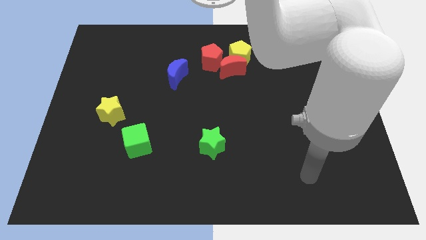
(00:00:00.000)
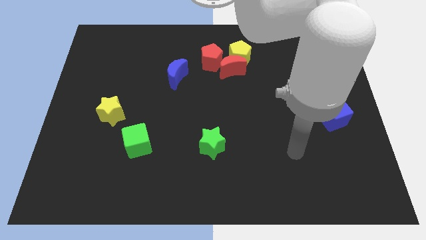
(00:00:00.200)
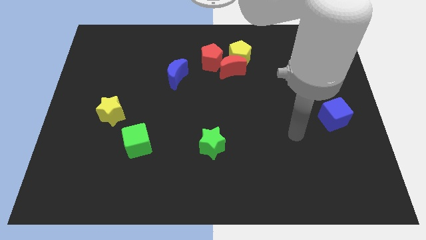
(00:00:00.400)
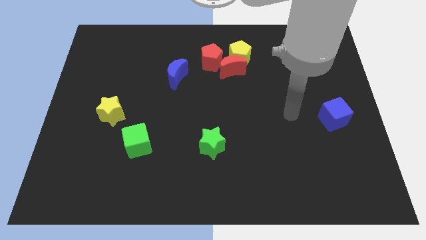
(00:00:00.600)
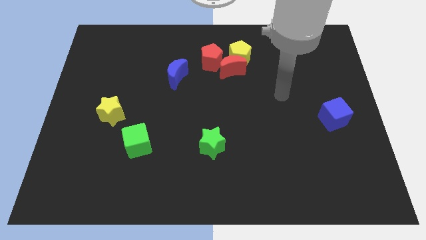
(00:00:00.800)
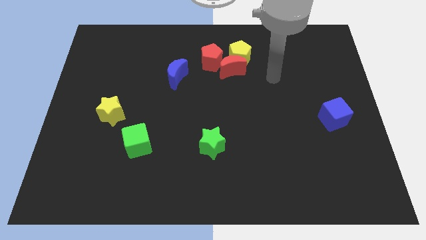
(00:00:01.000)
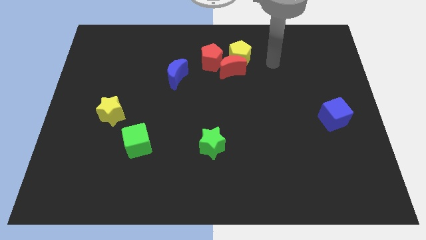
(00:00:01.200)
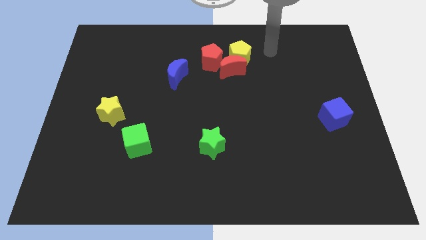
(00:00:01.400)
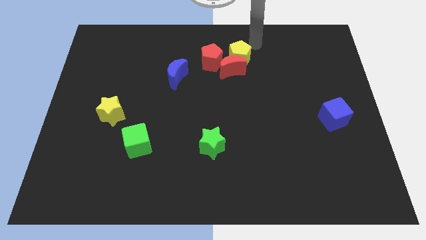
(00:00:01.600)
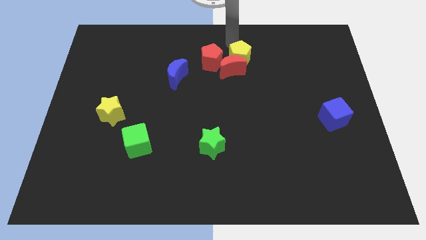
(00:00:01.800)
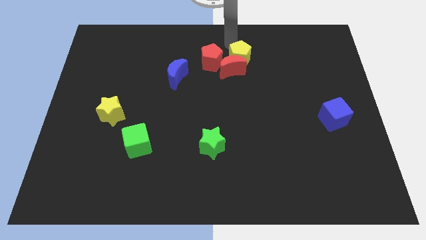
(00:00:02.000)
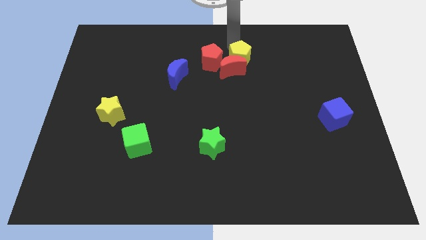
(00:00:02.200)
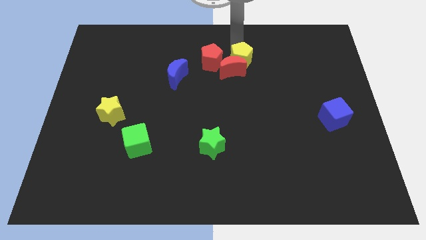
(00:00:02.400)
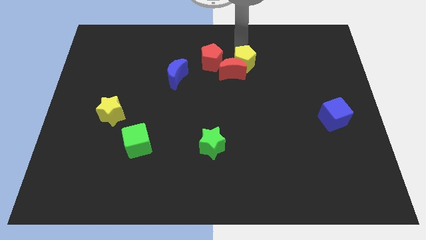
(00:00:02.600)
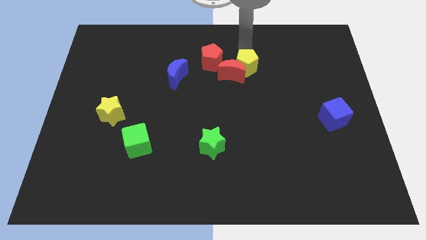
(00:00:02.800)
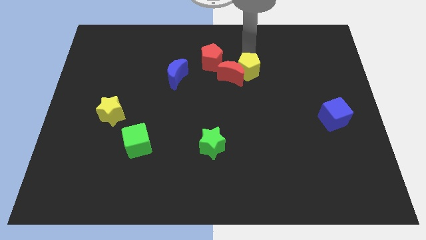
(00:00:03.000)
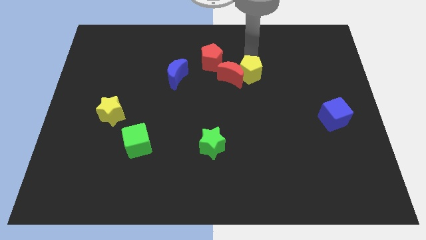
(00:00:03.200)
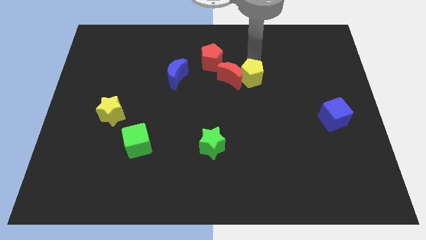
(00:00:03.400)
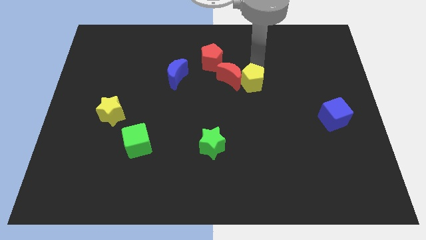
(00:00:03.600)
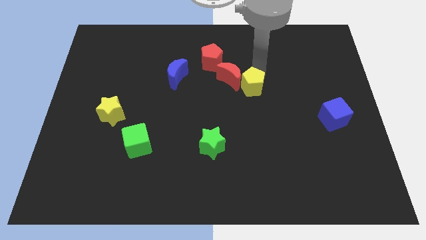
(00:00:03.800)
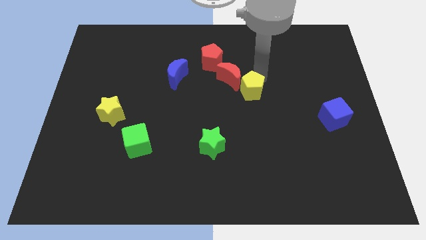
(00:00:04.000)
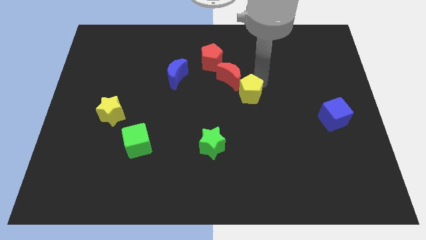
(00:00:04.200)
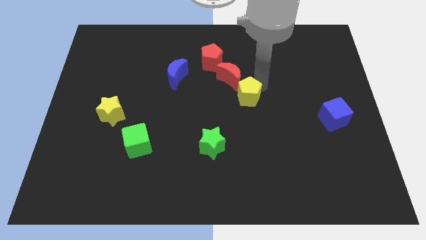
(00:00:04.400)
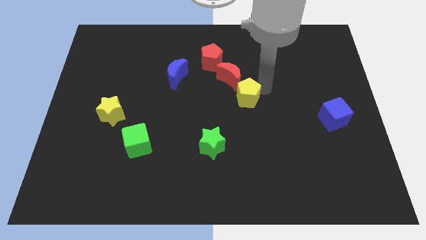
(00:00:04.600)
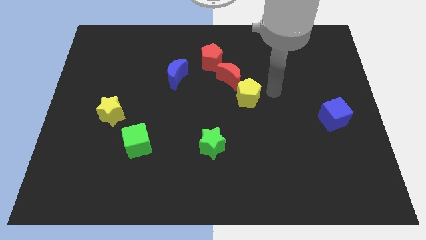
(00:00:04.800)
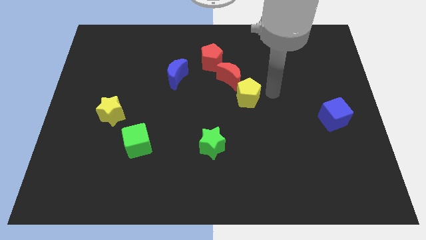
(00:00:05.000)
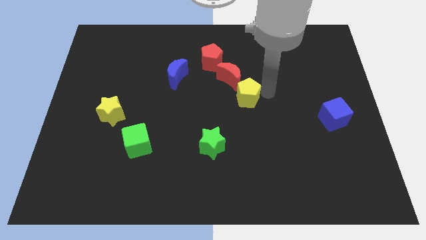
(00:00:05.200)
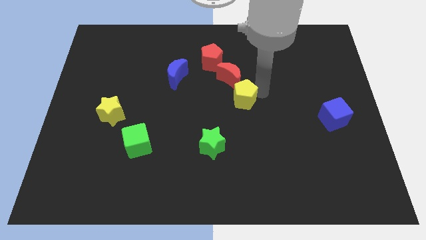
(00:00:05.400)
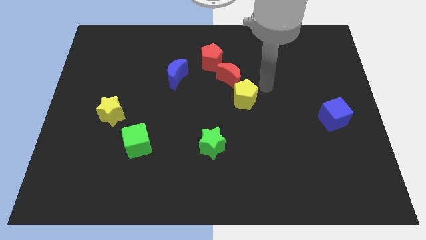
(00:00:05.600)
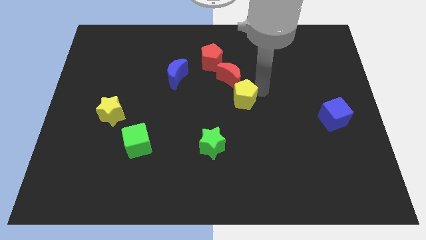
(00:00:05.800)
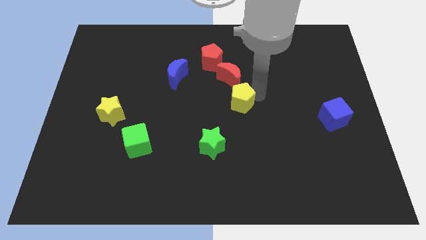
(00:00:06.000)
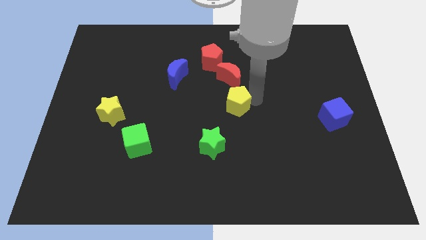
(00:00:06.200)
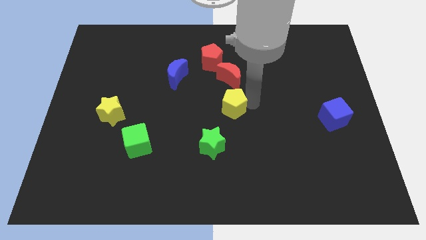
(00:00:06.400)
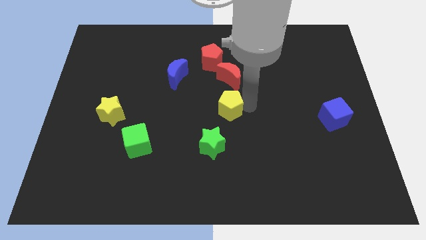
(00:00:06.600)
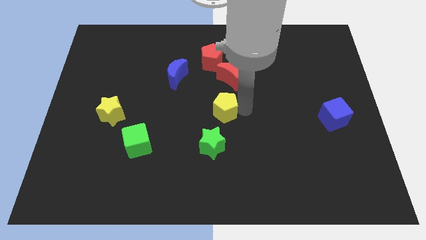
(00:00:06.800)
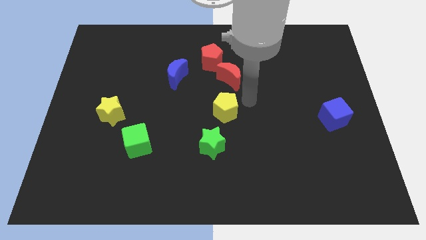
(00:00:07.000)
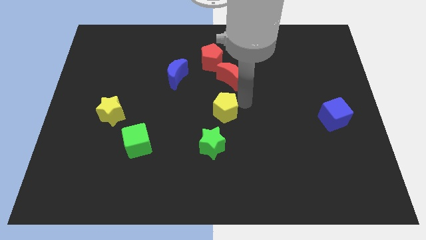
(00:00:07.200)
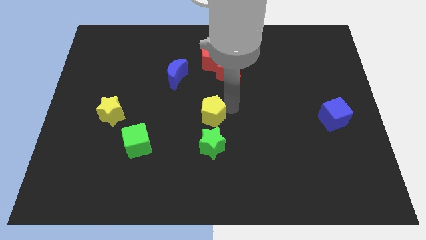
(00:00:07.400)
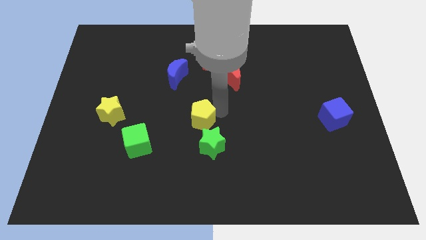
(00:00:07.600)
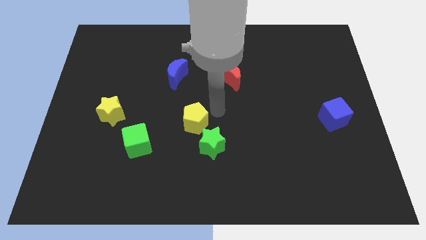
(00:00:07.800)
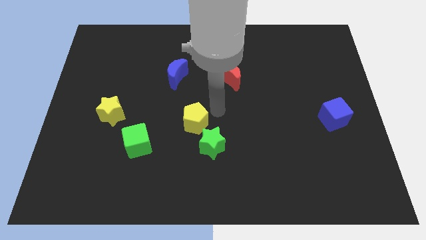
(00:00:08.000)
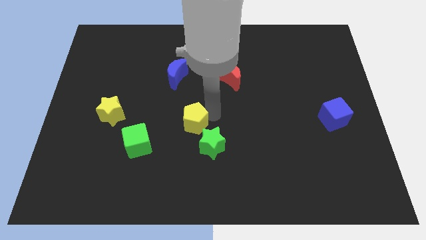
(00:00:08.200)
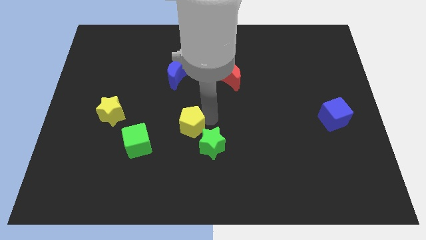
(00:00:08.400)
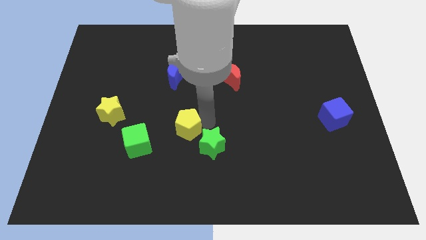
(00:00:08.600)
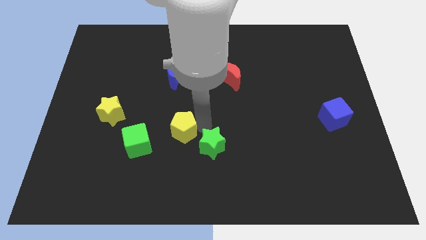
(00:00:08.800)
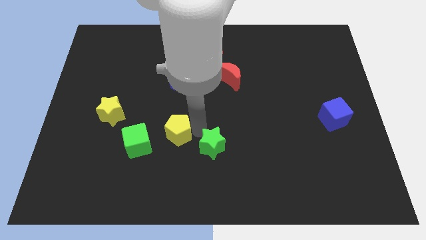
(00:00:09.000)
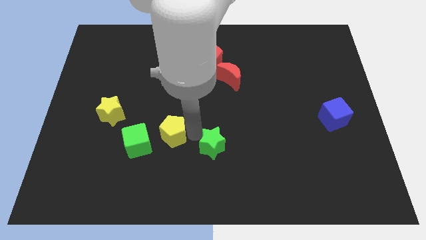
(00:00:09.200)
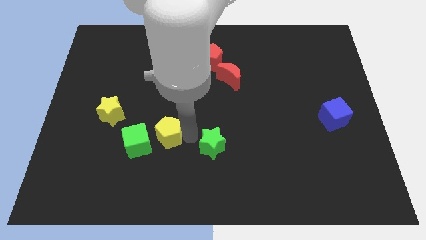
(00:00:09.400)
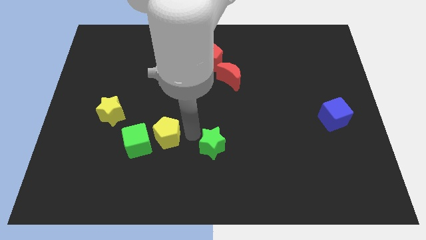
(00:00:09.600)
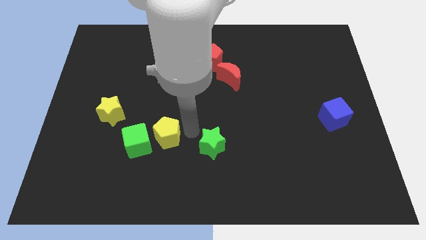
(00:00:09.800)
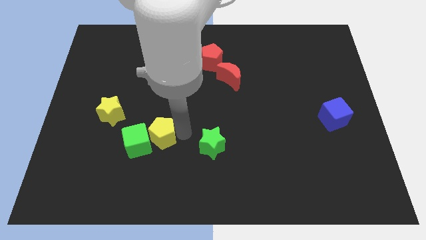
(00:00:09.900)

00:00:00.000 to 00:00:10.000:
push the yellow pentagon to the green cube

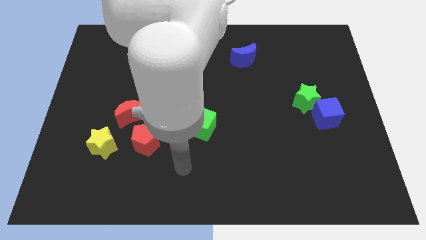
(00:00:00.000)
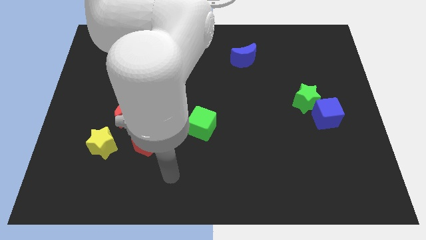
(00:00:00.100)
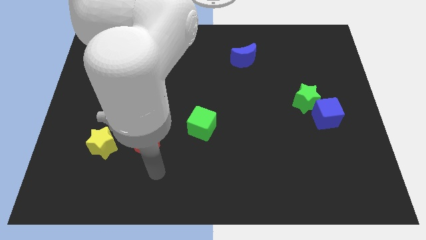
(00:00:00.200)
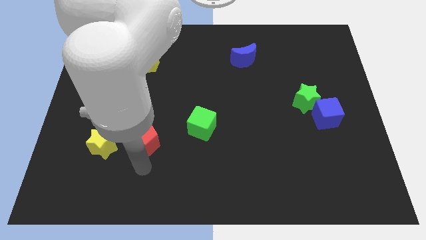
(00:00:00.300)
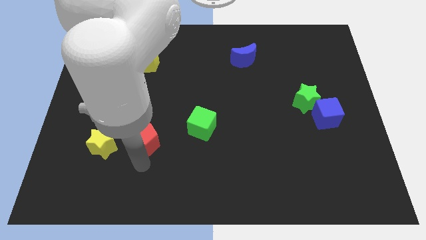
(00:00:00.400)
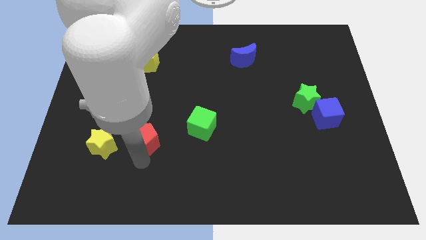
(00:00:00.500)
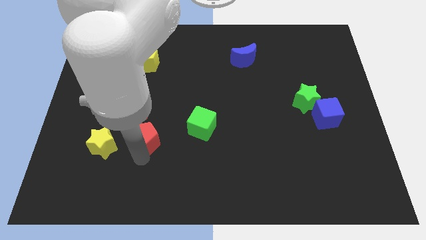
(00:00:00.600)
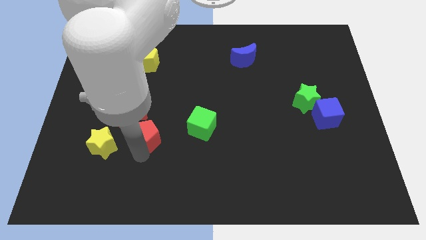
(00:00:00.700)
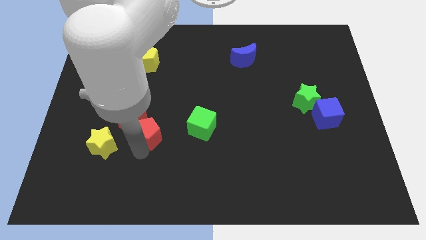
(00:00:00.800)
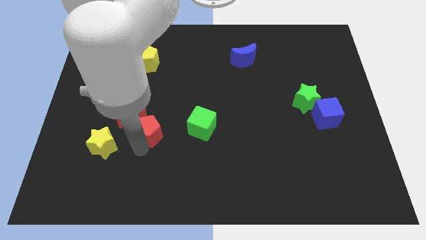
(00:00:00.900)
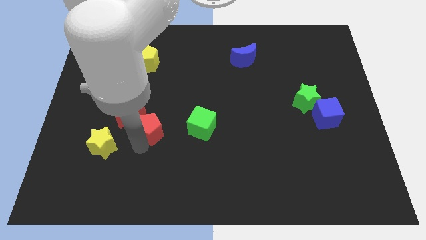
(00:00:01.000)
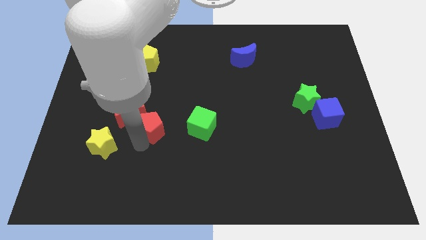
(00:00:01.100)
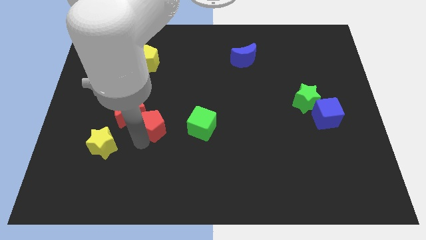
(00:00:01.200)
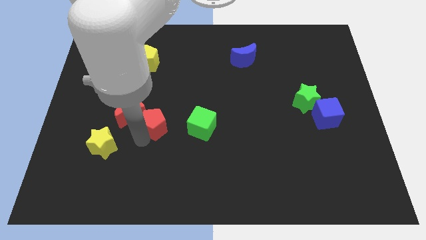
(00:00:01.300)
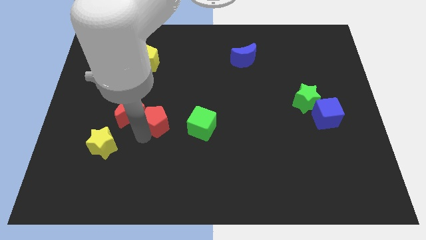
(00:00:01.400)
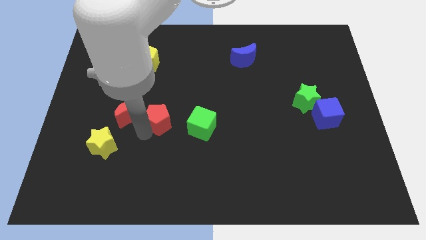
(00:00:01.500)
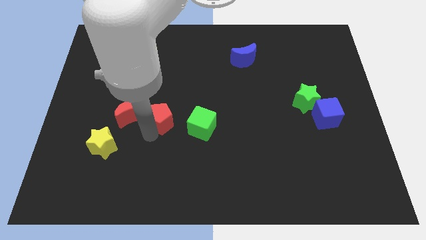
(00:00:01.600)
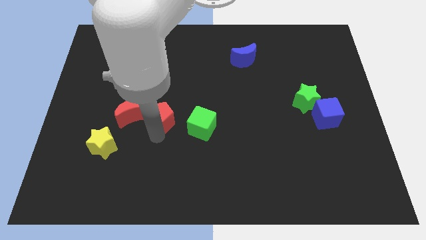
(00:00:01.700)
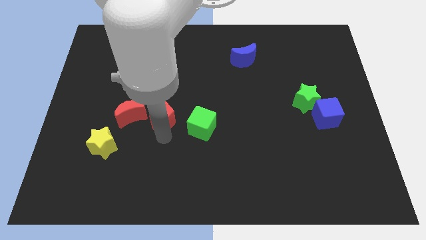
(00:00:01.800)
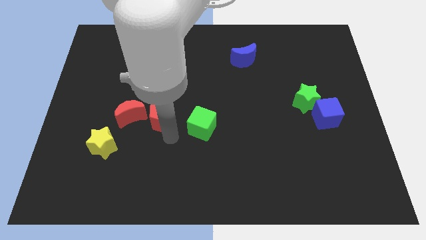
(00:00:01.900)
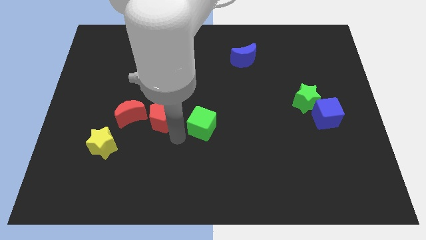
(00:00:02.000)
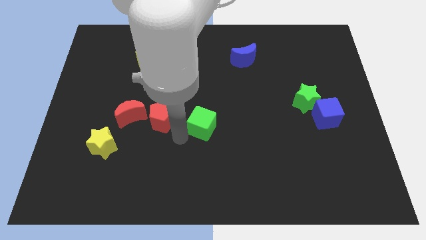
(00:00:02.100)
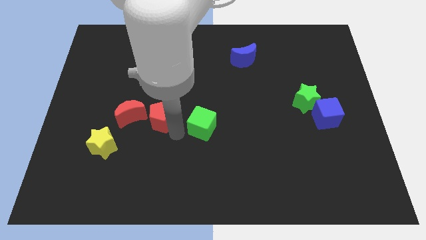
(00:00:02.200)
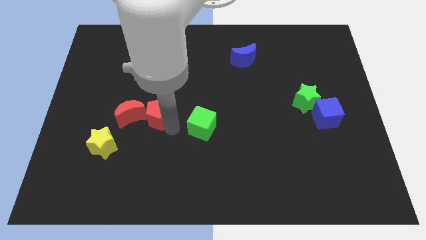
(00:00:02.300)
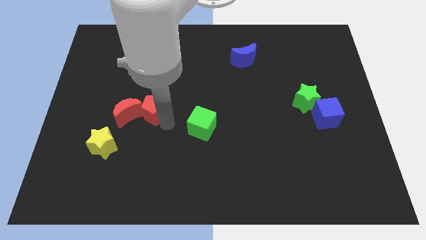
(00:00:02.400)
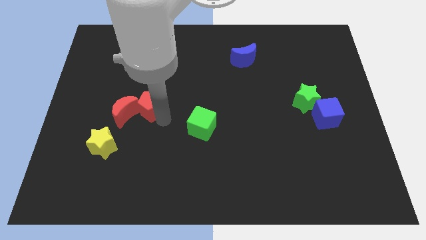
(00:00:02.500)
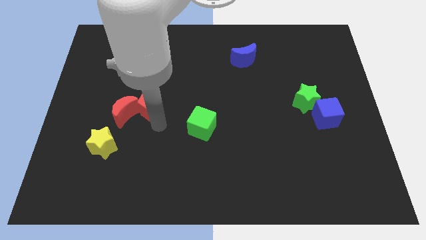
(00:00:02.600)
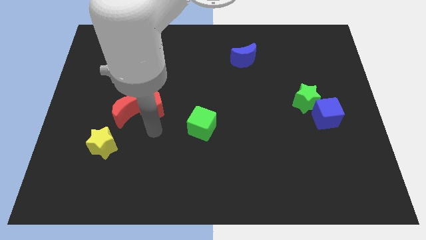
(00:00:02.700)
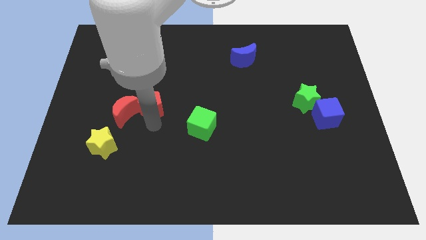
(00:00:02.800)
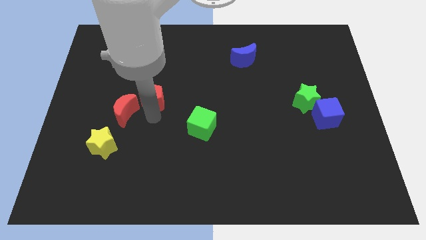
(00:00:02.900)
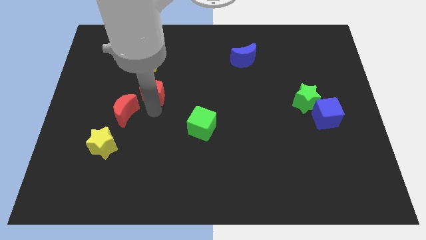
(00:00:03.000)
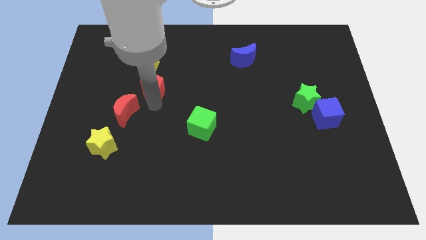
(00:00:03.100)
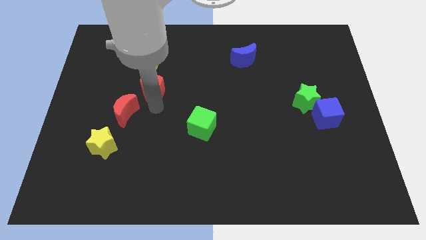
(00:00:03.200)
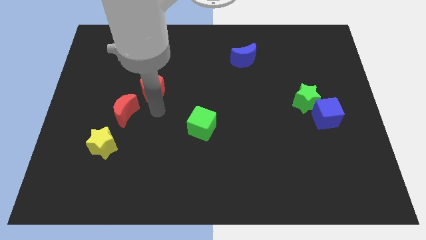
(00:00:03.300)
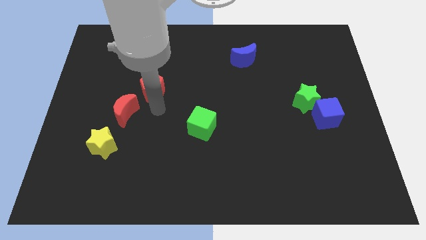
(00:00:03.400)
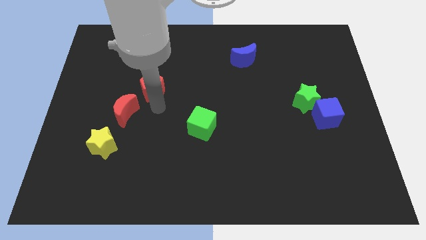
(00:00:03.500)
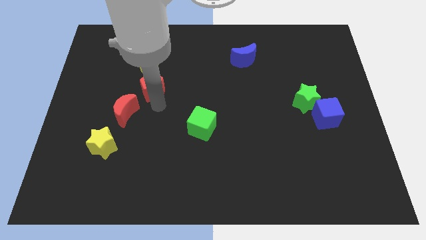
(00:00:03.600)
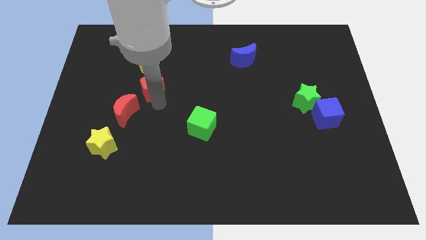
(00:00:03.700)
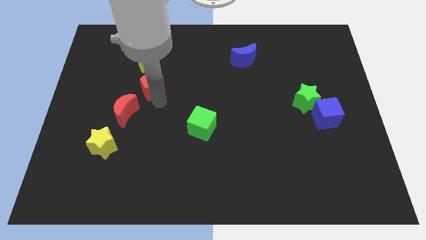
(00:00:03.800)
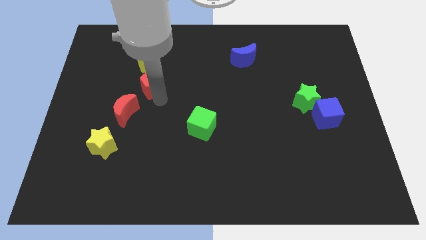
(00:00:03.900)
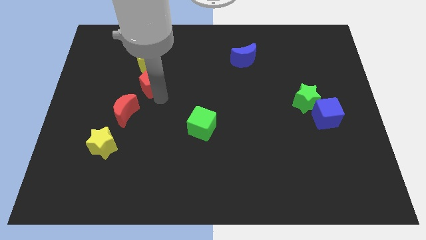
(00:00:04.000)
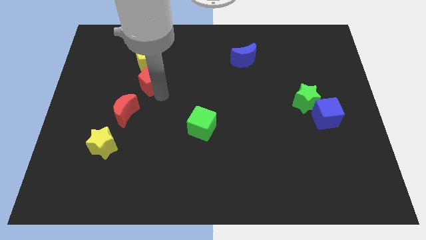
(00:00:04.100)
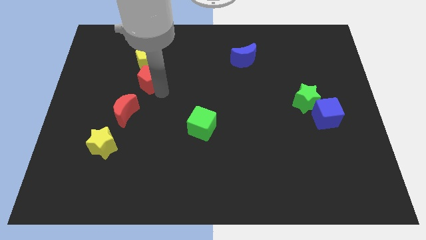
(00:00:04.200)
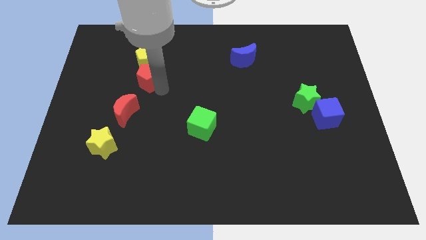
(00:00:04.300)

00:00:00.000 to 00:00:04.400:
move the red pentagon to the yellow pentagon
